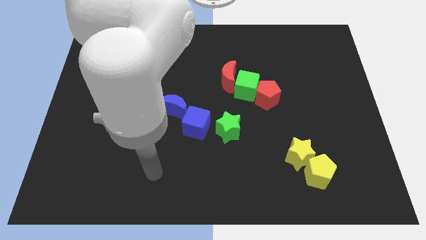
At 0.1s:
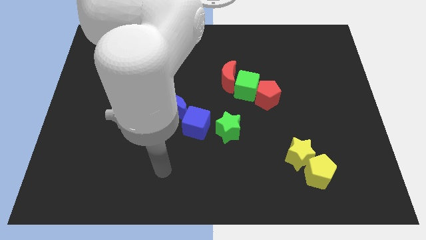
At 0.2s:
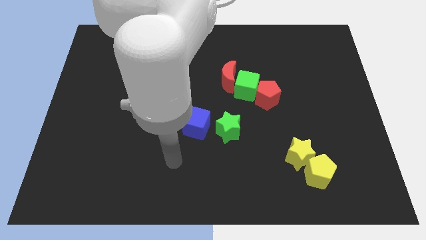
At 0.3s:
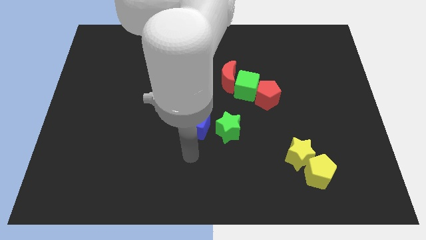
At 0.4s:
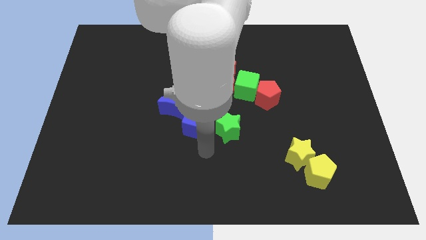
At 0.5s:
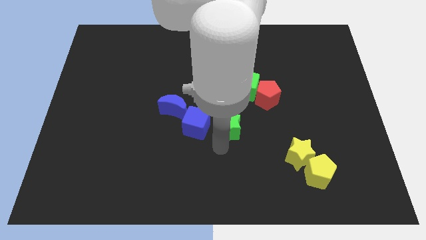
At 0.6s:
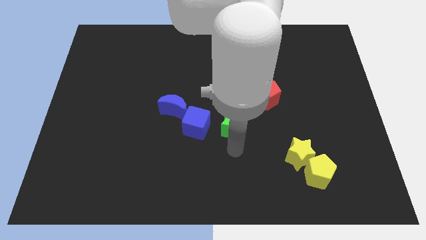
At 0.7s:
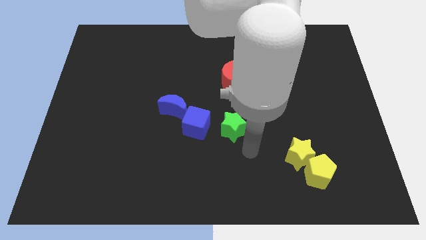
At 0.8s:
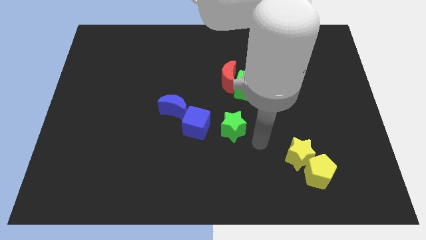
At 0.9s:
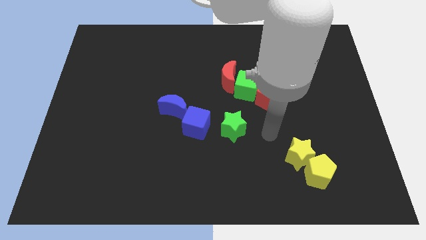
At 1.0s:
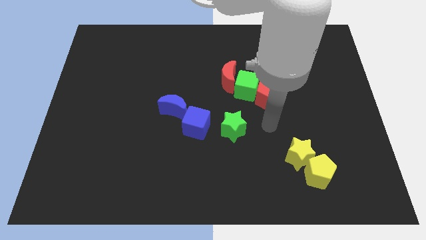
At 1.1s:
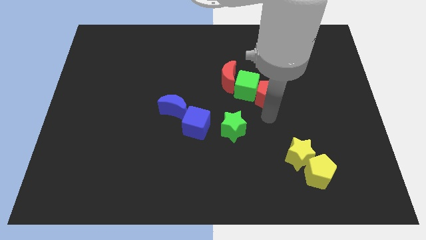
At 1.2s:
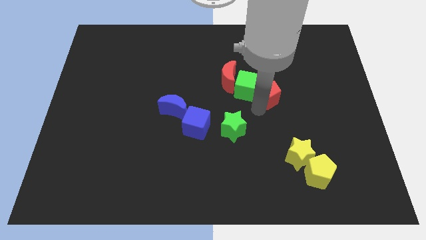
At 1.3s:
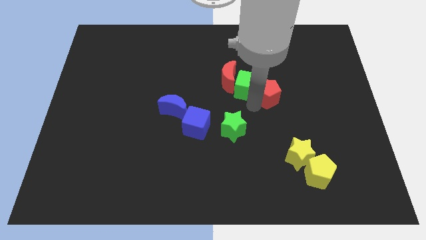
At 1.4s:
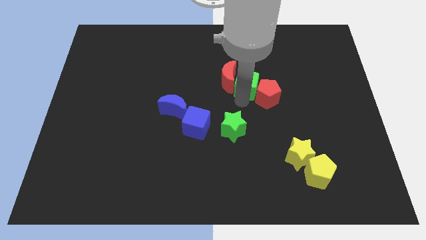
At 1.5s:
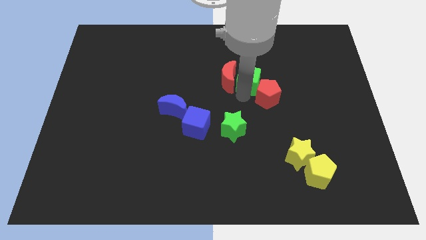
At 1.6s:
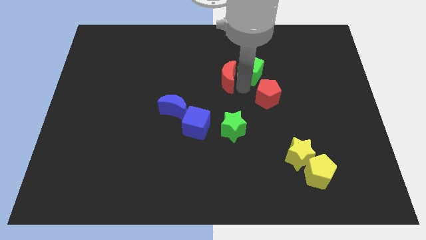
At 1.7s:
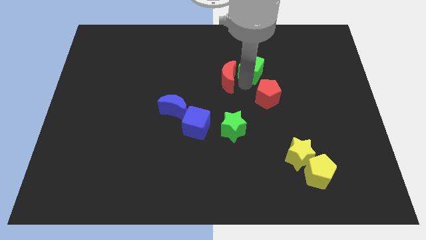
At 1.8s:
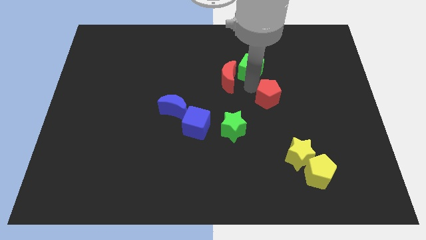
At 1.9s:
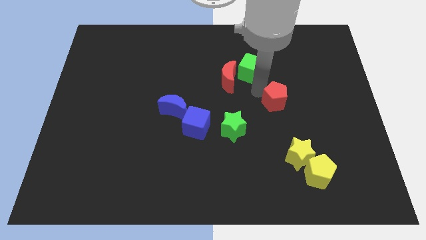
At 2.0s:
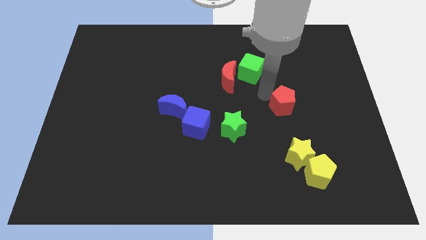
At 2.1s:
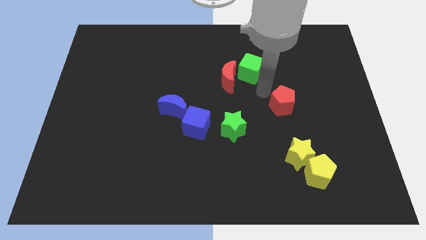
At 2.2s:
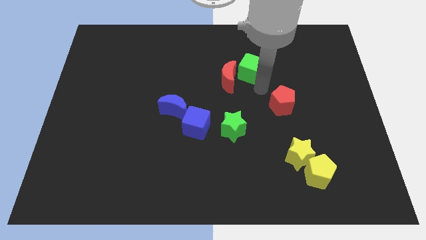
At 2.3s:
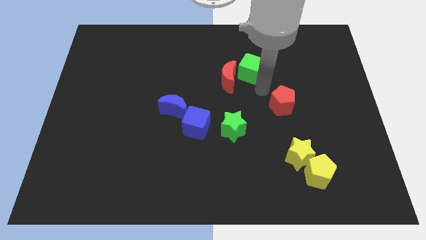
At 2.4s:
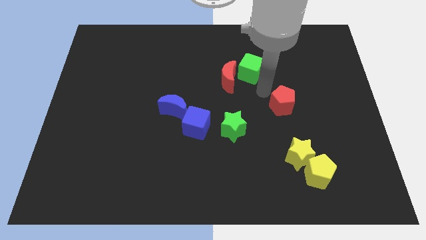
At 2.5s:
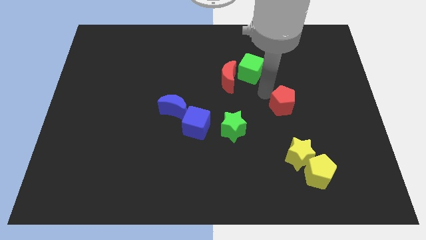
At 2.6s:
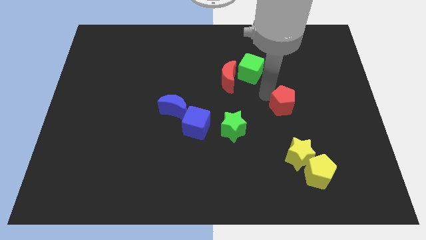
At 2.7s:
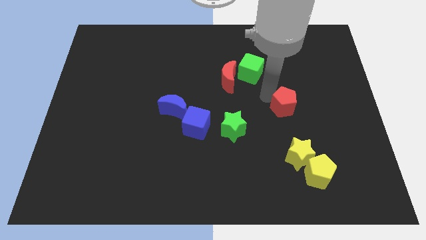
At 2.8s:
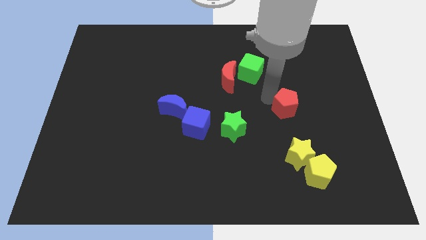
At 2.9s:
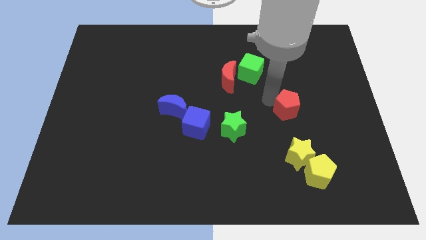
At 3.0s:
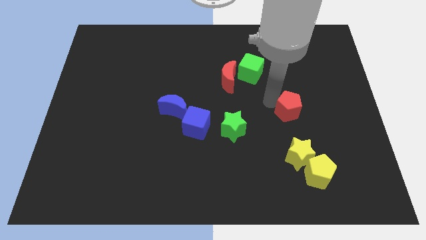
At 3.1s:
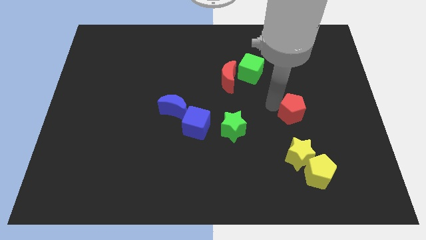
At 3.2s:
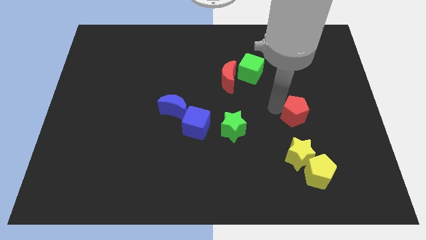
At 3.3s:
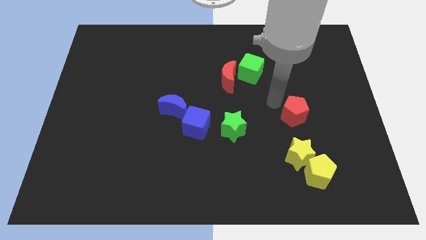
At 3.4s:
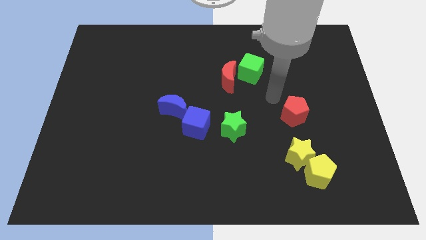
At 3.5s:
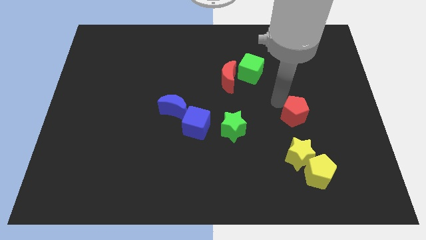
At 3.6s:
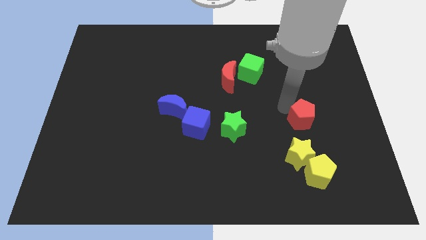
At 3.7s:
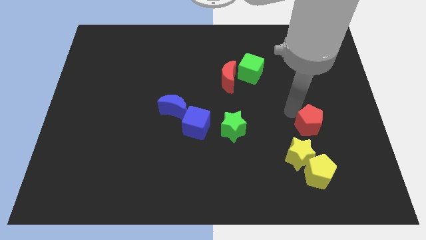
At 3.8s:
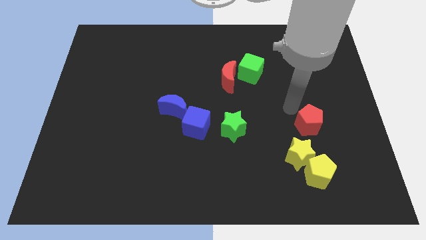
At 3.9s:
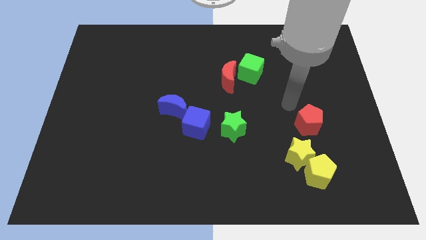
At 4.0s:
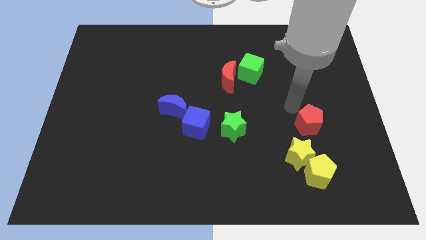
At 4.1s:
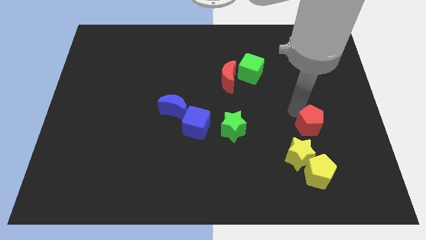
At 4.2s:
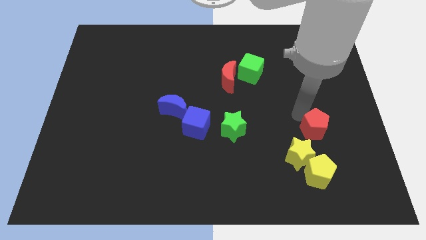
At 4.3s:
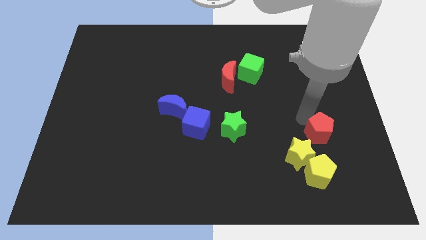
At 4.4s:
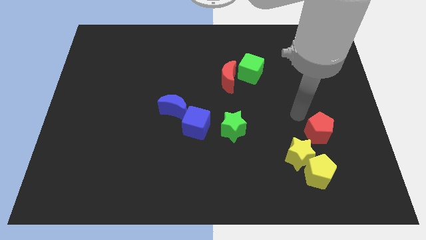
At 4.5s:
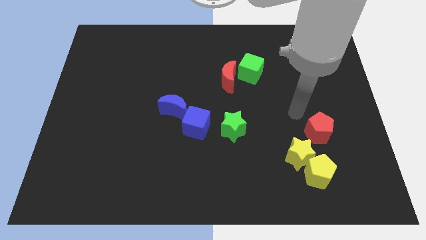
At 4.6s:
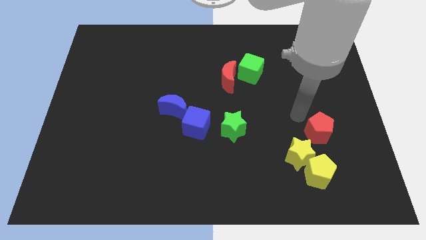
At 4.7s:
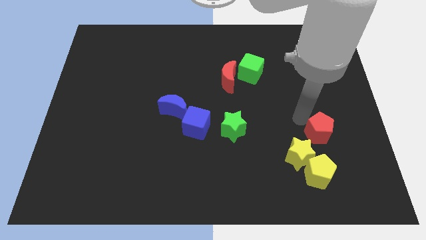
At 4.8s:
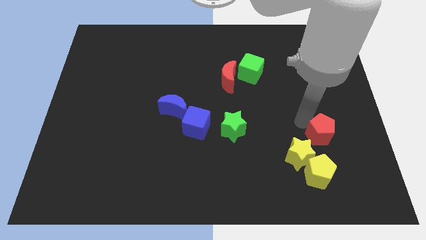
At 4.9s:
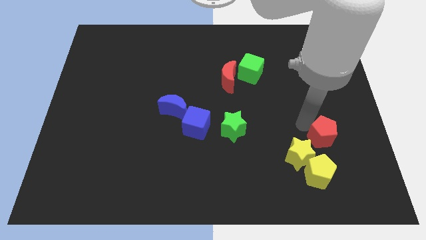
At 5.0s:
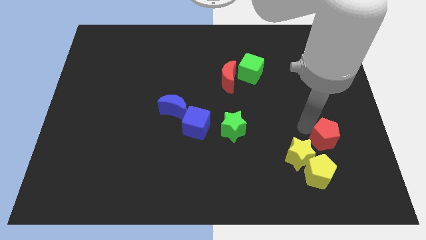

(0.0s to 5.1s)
move the red pentagon right of the yellow star

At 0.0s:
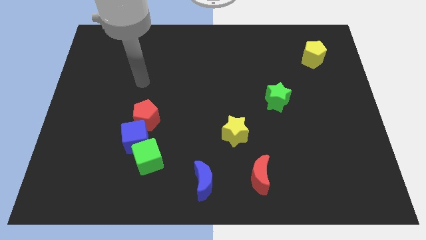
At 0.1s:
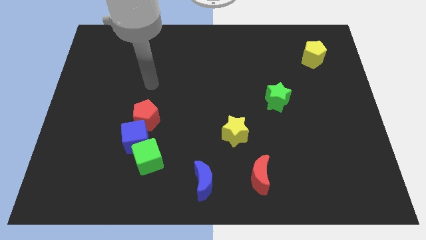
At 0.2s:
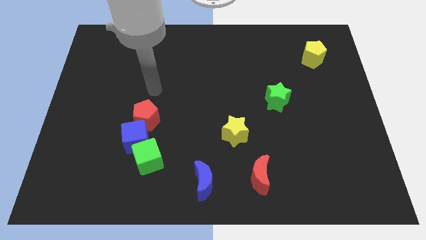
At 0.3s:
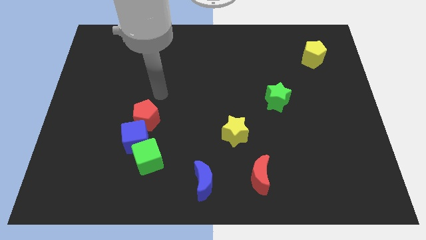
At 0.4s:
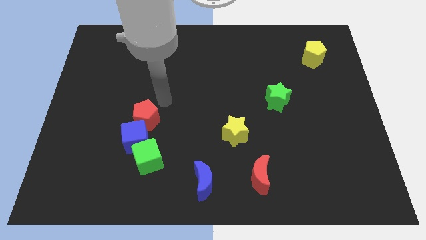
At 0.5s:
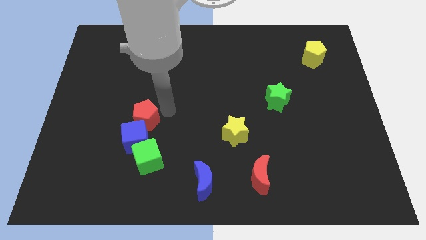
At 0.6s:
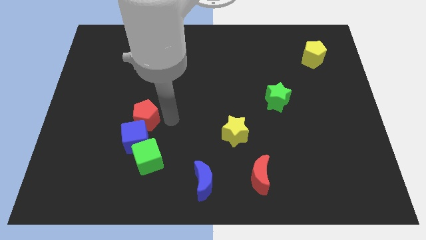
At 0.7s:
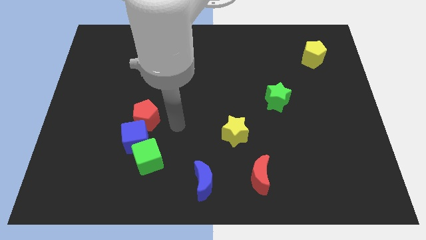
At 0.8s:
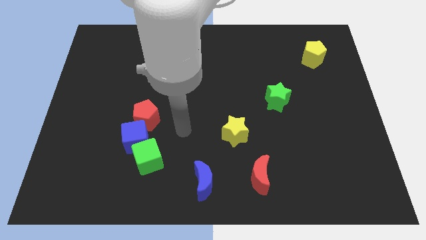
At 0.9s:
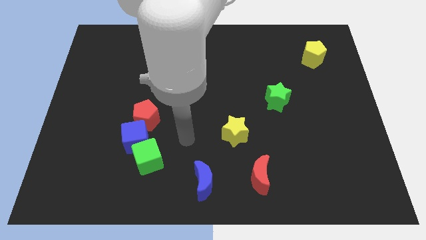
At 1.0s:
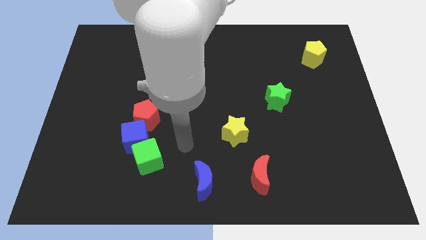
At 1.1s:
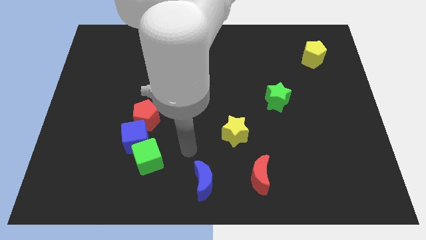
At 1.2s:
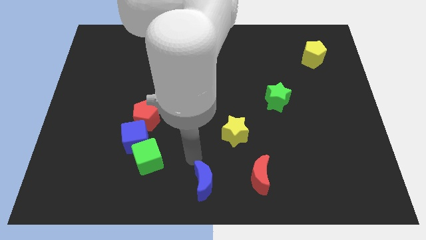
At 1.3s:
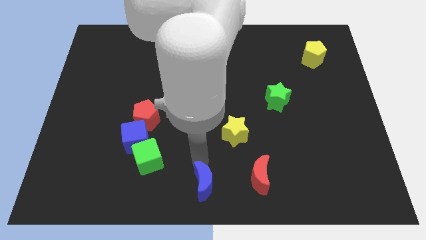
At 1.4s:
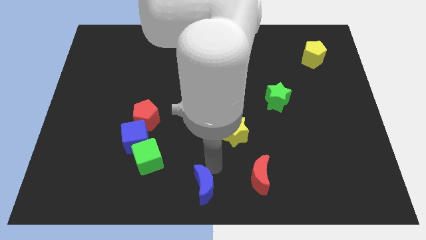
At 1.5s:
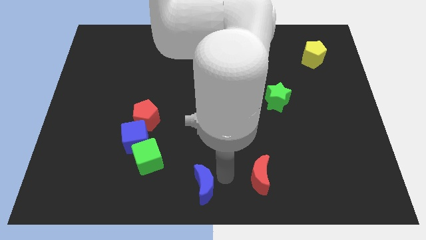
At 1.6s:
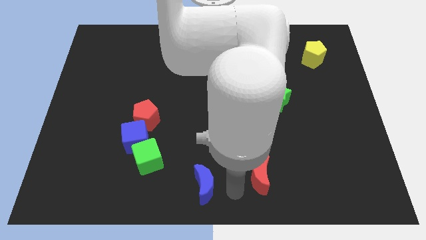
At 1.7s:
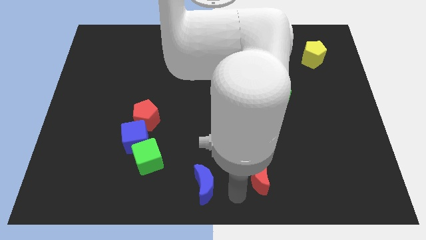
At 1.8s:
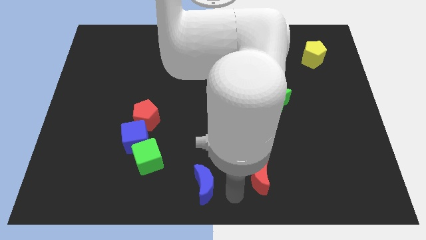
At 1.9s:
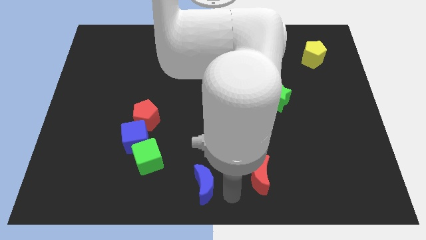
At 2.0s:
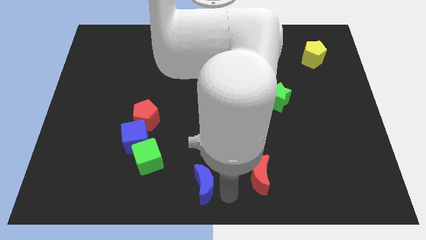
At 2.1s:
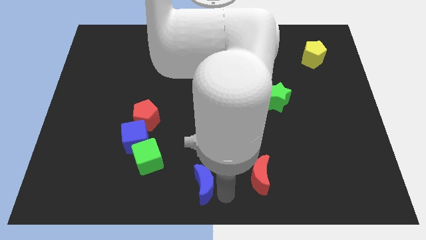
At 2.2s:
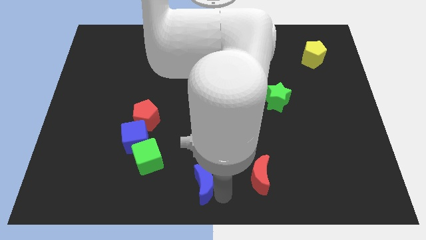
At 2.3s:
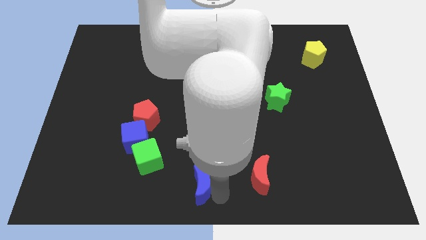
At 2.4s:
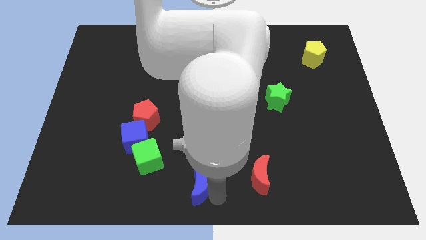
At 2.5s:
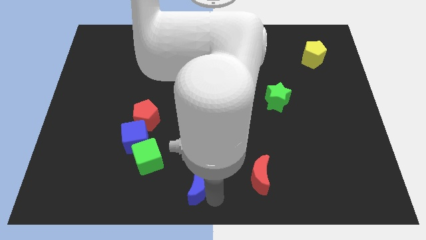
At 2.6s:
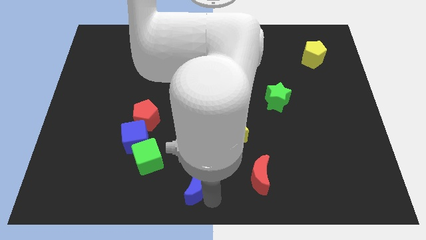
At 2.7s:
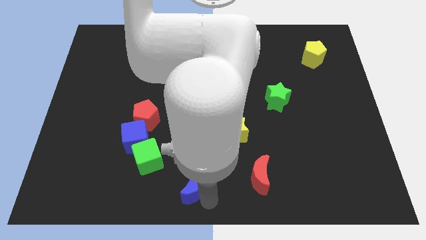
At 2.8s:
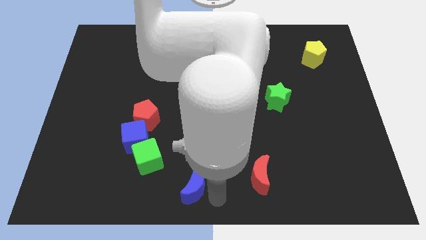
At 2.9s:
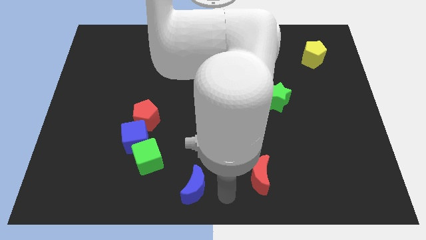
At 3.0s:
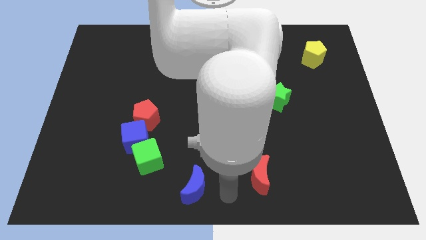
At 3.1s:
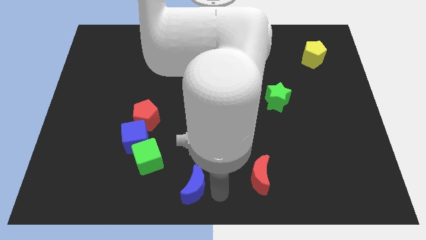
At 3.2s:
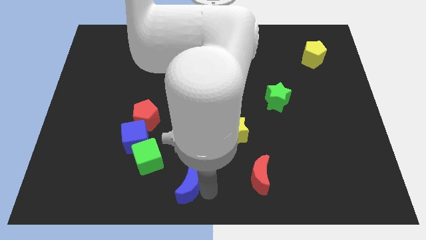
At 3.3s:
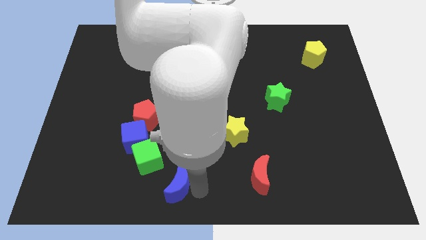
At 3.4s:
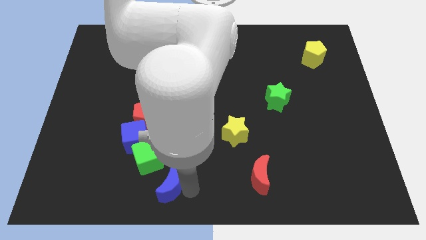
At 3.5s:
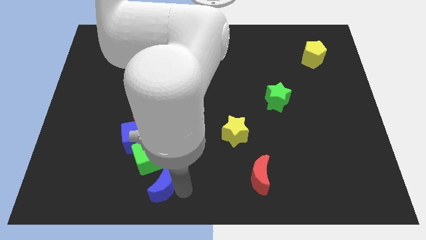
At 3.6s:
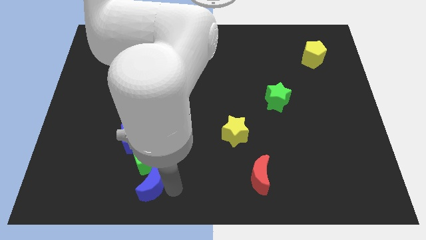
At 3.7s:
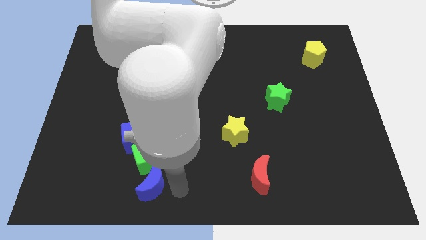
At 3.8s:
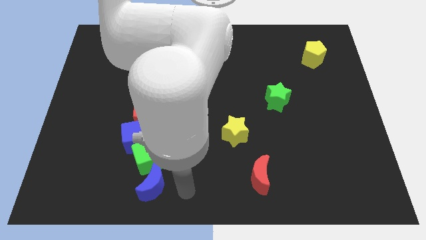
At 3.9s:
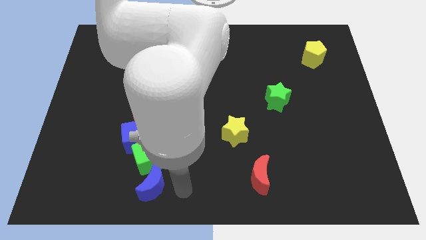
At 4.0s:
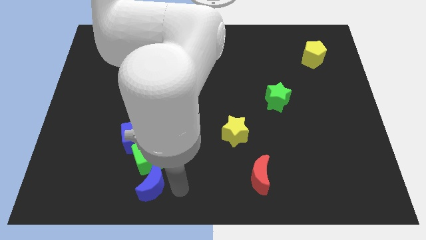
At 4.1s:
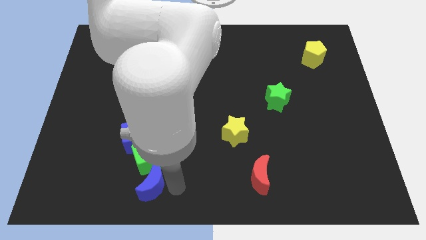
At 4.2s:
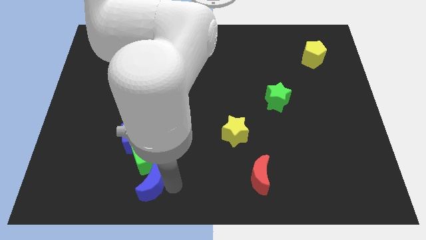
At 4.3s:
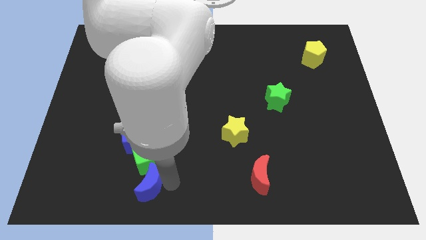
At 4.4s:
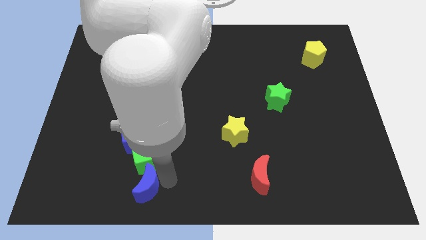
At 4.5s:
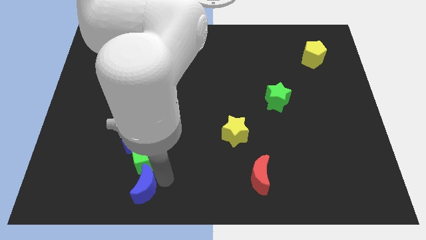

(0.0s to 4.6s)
push the blue moon diagonally down and to the left of the green cube
